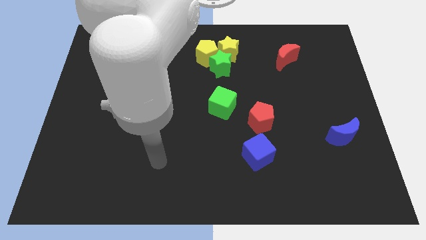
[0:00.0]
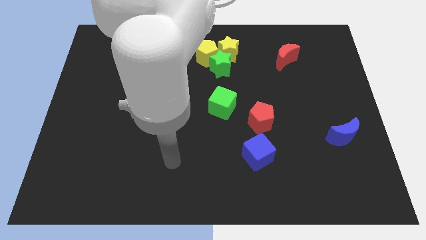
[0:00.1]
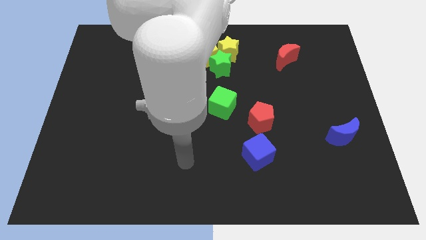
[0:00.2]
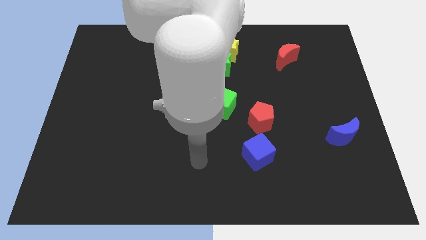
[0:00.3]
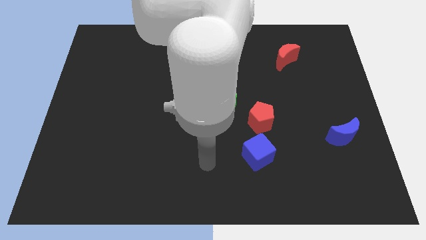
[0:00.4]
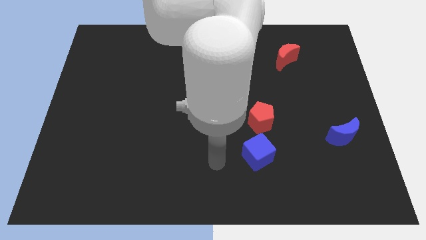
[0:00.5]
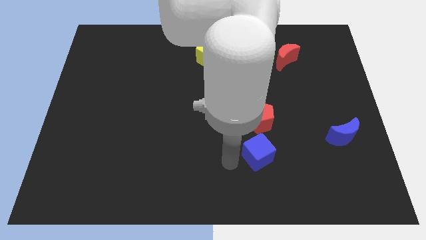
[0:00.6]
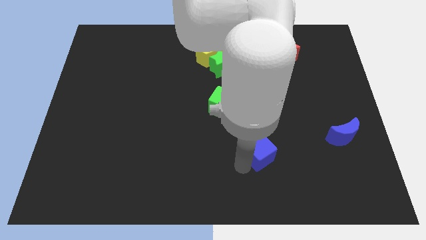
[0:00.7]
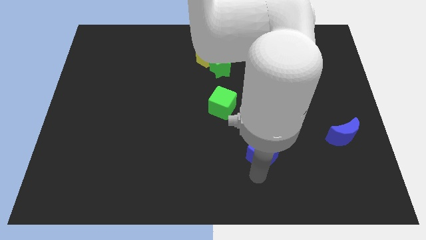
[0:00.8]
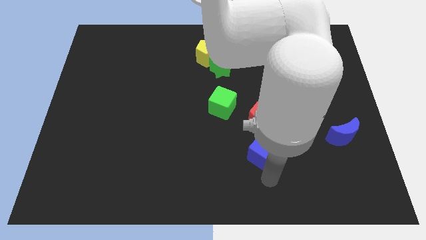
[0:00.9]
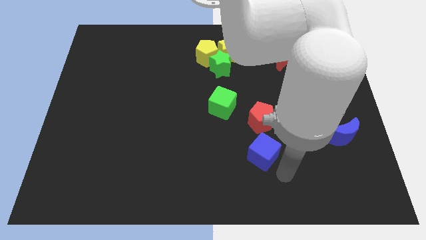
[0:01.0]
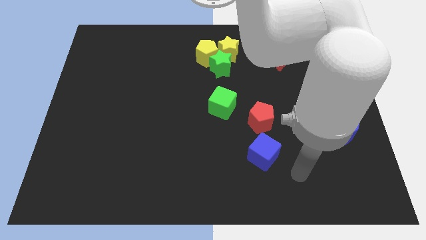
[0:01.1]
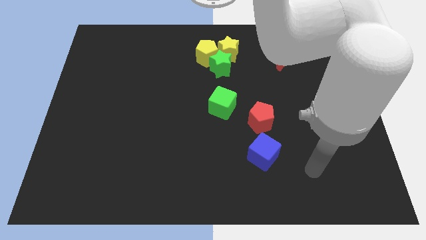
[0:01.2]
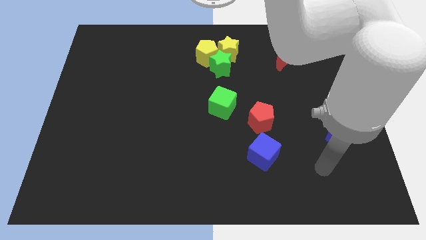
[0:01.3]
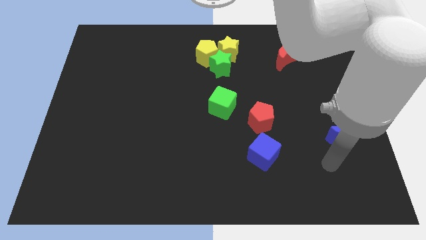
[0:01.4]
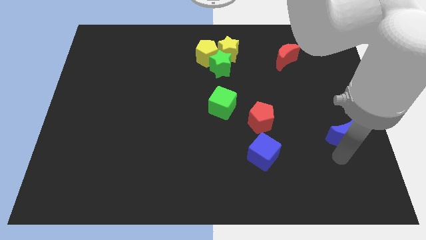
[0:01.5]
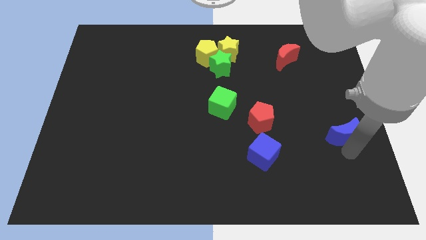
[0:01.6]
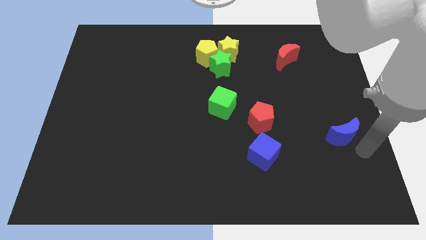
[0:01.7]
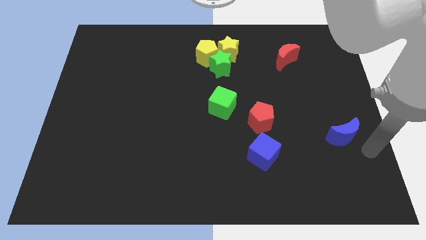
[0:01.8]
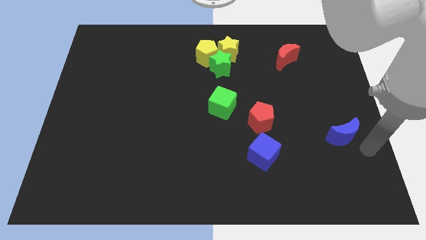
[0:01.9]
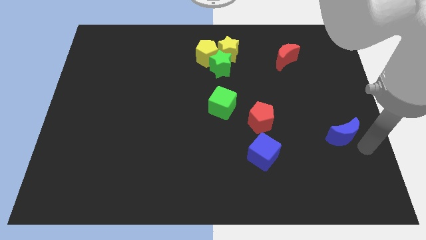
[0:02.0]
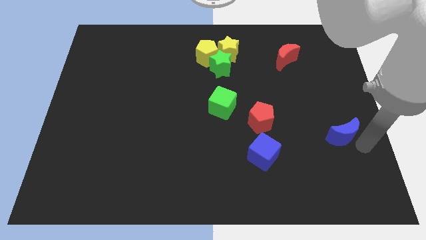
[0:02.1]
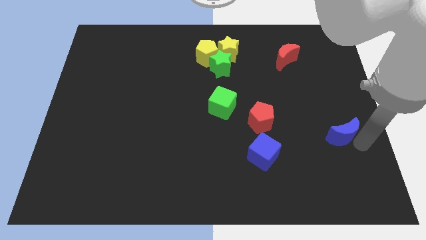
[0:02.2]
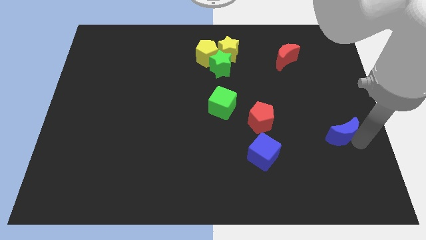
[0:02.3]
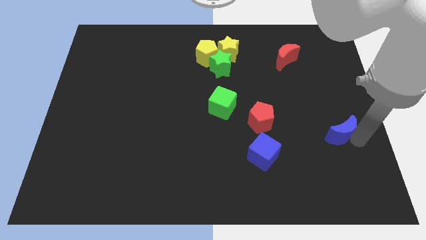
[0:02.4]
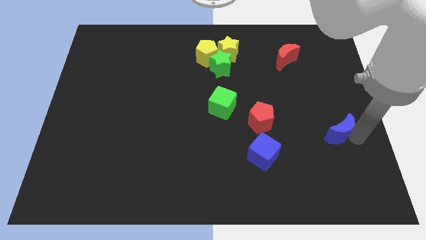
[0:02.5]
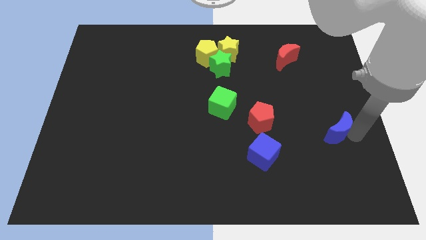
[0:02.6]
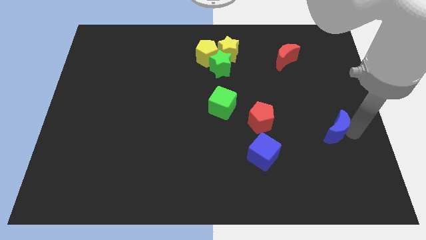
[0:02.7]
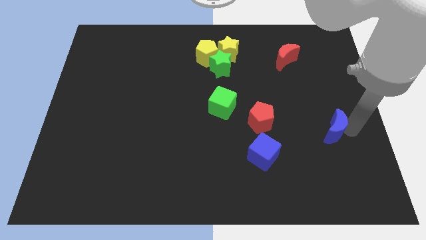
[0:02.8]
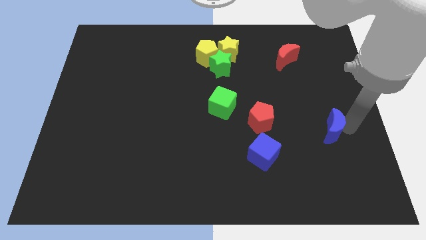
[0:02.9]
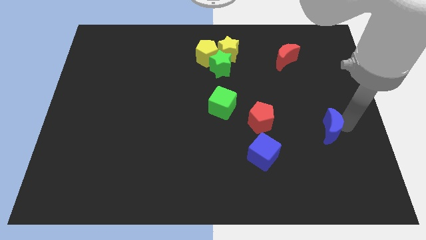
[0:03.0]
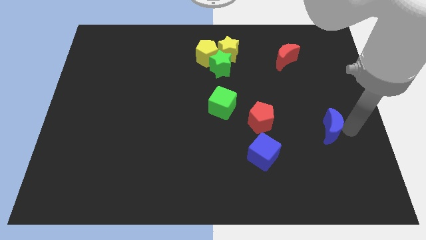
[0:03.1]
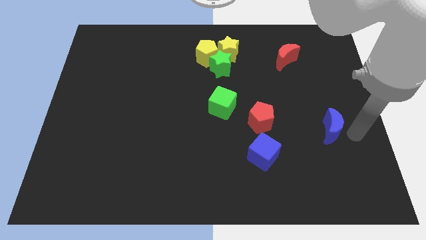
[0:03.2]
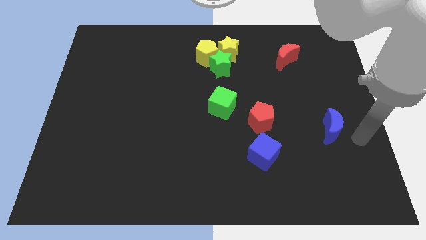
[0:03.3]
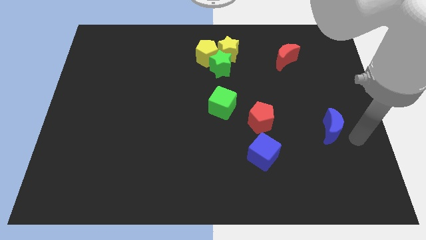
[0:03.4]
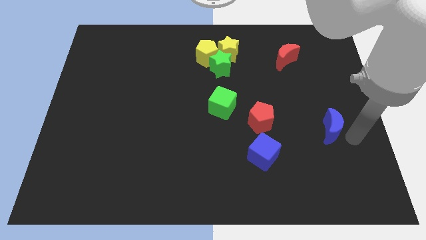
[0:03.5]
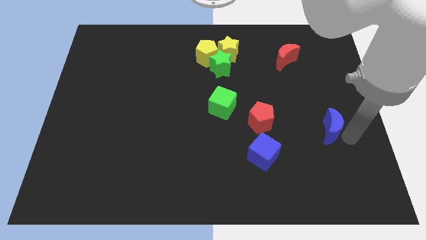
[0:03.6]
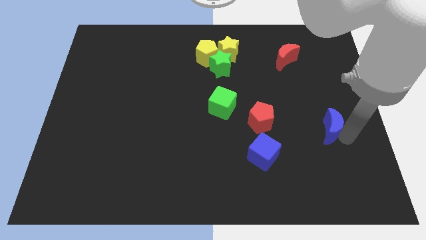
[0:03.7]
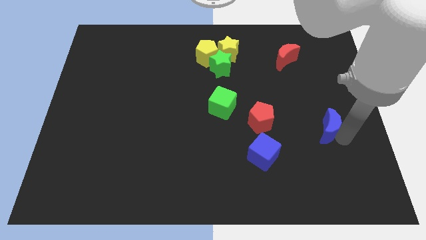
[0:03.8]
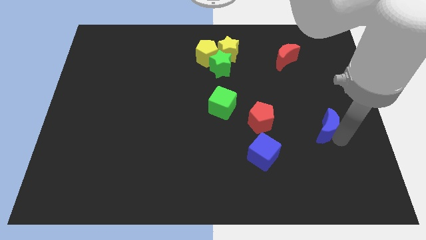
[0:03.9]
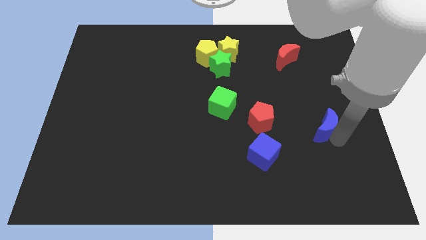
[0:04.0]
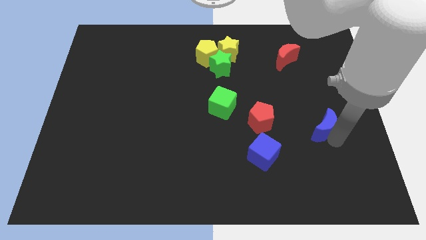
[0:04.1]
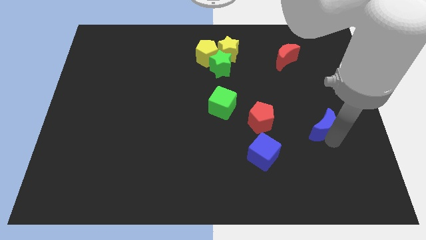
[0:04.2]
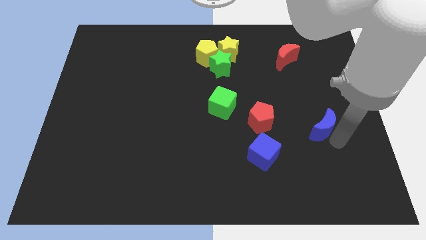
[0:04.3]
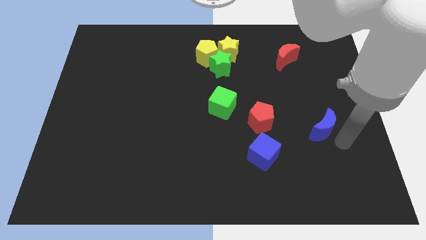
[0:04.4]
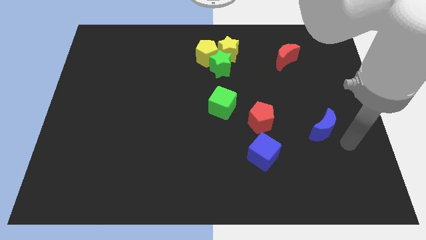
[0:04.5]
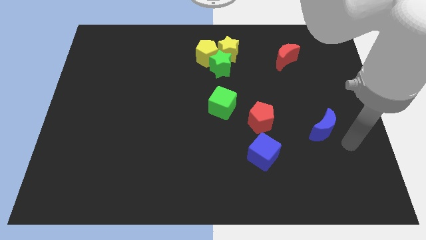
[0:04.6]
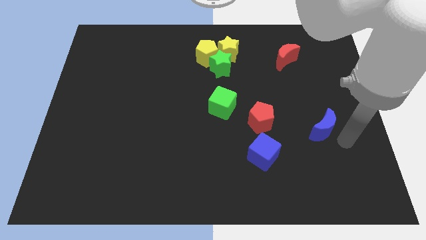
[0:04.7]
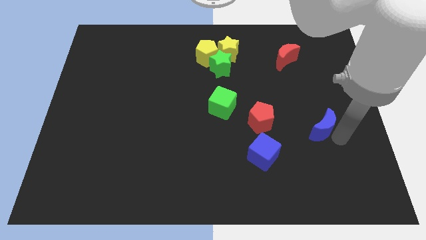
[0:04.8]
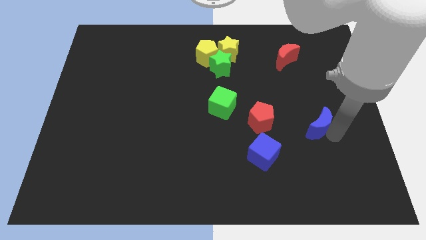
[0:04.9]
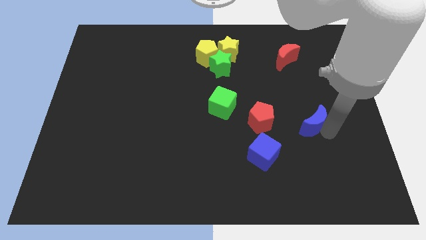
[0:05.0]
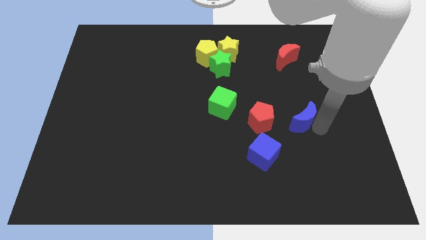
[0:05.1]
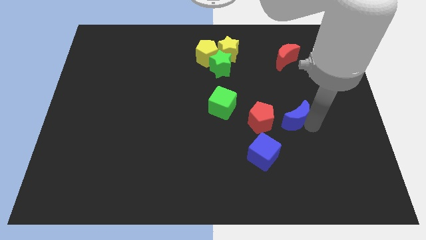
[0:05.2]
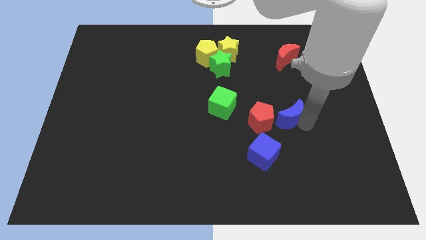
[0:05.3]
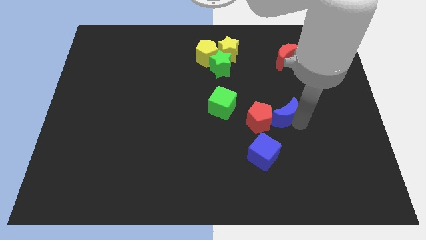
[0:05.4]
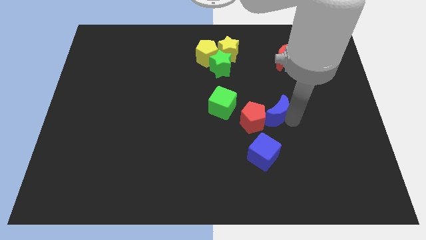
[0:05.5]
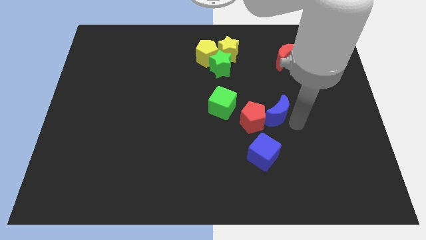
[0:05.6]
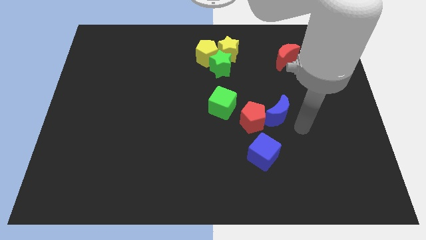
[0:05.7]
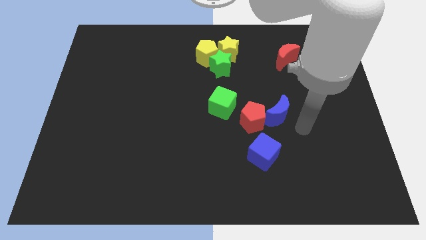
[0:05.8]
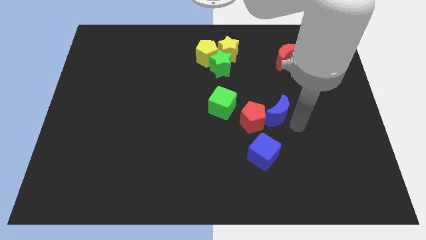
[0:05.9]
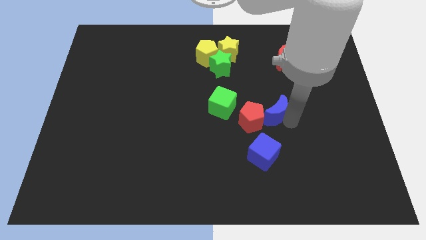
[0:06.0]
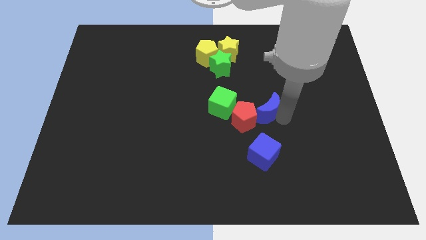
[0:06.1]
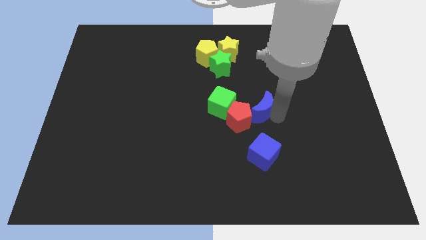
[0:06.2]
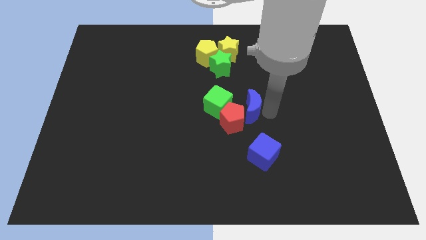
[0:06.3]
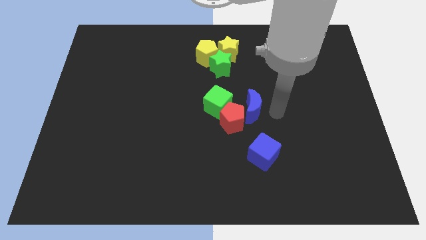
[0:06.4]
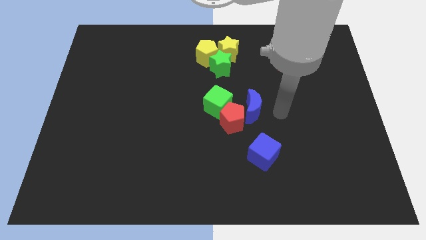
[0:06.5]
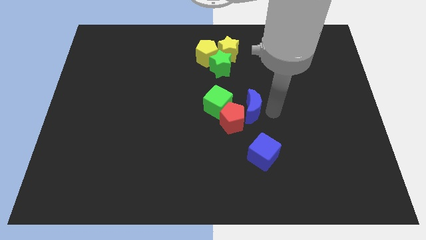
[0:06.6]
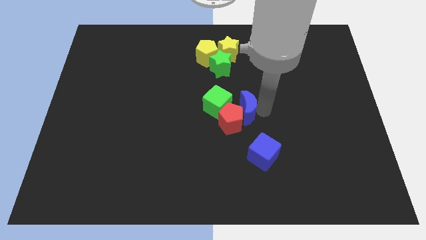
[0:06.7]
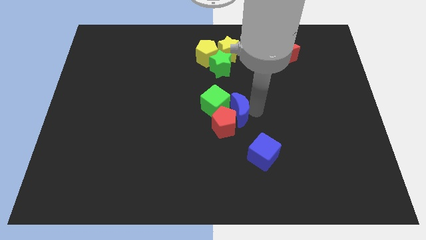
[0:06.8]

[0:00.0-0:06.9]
put the blue moon close to the green cube
